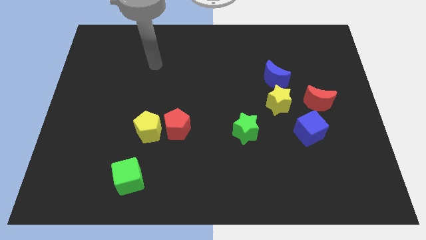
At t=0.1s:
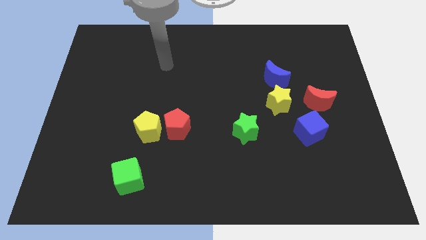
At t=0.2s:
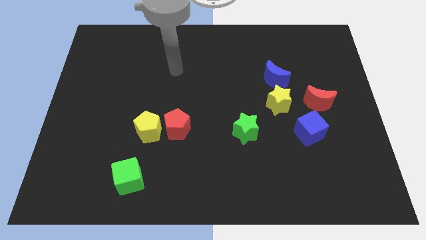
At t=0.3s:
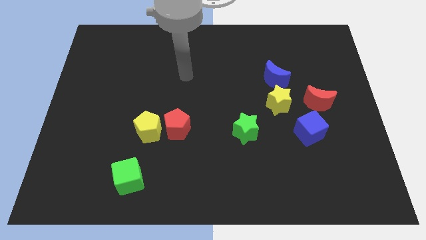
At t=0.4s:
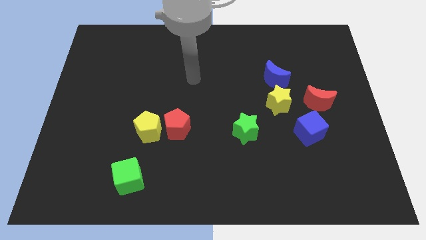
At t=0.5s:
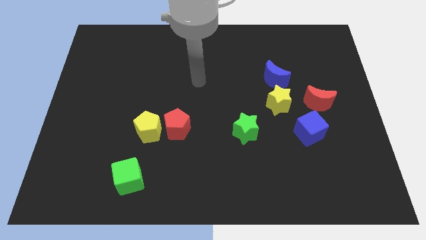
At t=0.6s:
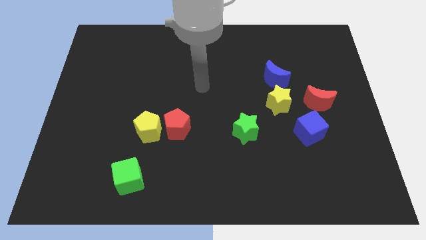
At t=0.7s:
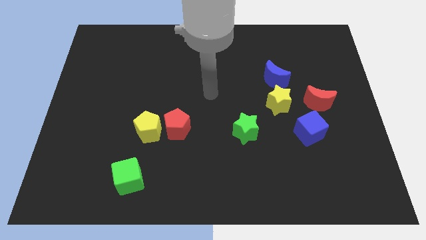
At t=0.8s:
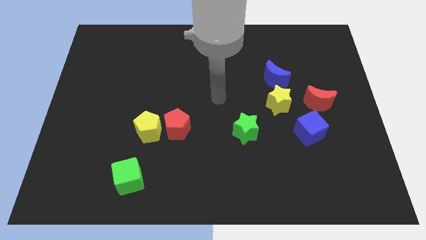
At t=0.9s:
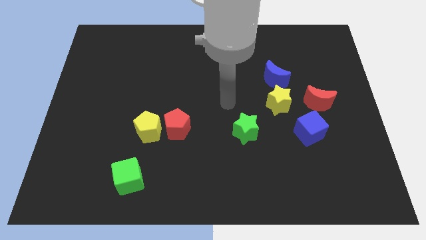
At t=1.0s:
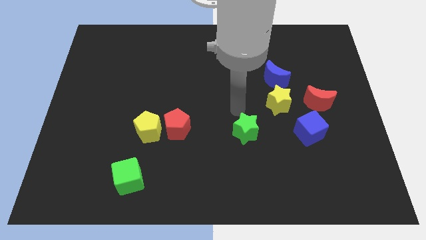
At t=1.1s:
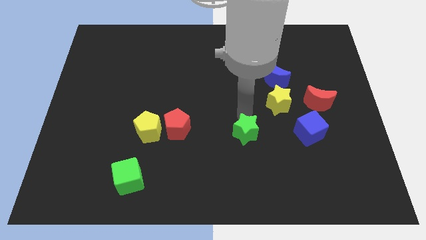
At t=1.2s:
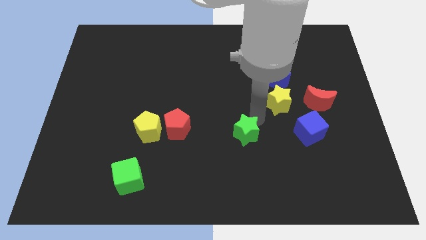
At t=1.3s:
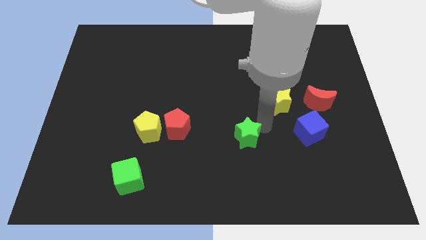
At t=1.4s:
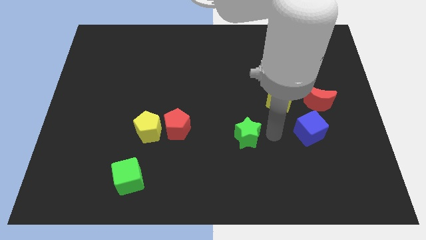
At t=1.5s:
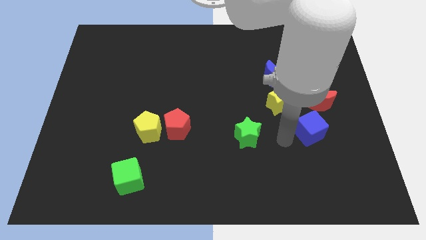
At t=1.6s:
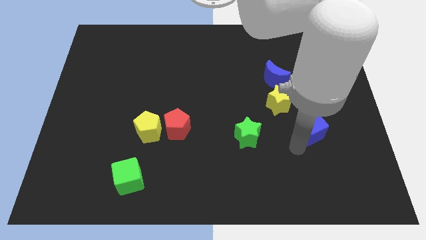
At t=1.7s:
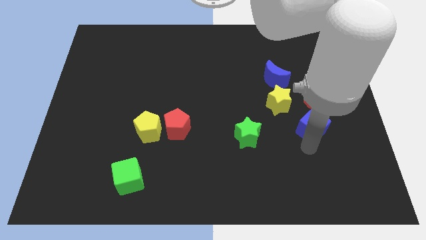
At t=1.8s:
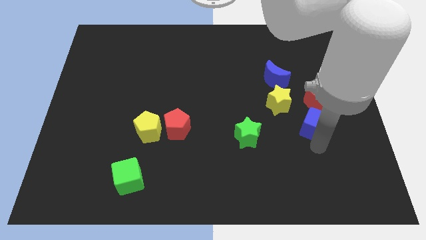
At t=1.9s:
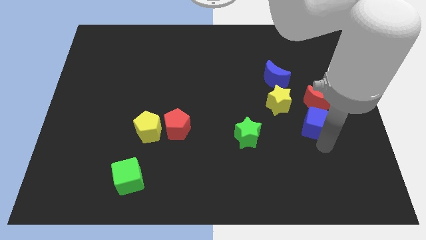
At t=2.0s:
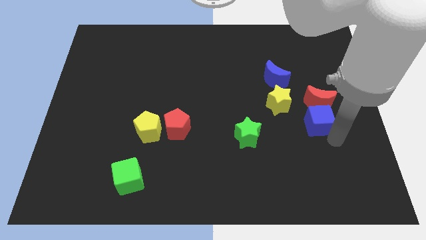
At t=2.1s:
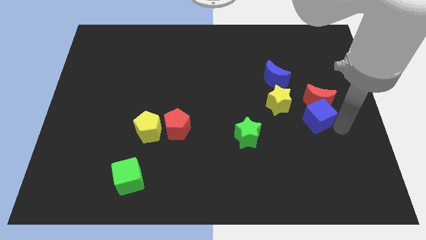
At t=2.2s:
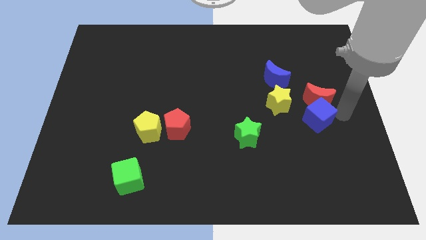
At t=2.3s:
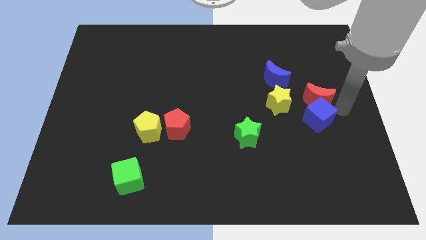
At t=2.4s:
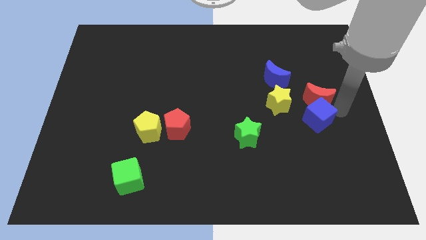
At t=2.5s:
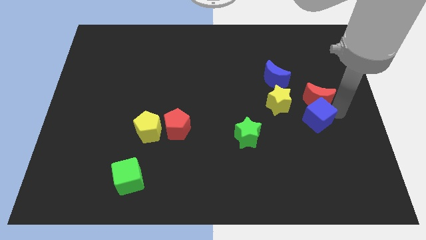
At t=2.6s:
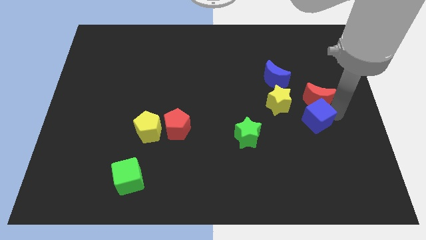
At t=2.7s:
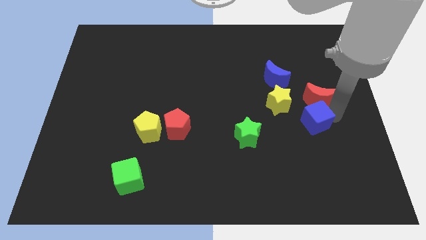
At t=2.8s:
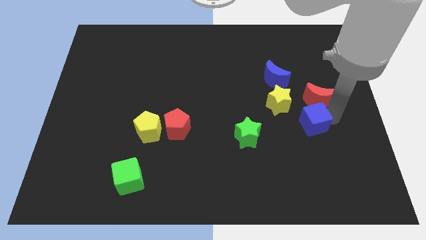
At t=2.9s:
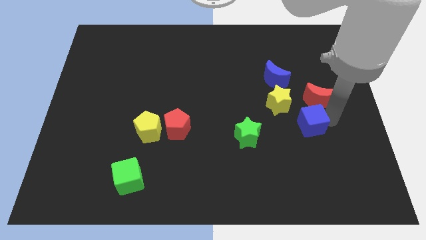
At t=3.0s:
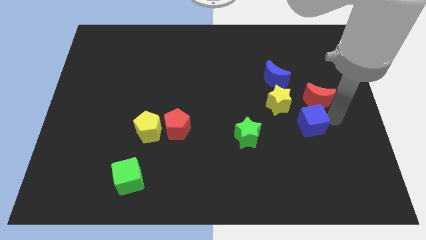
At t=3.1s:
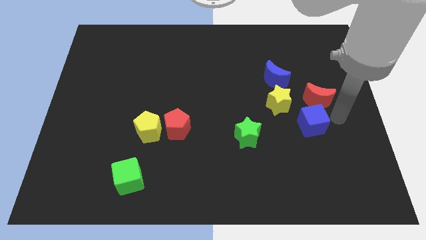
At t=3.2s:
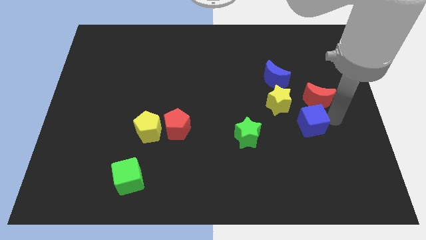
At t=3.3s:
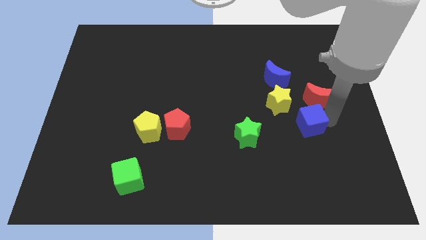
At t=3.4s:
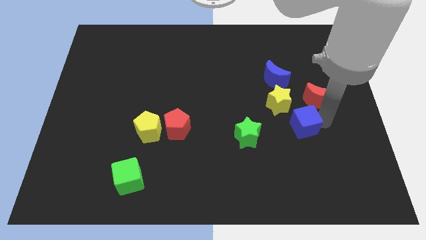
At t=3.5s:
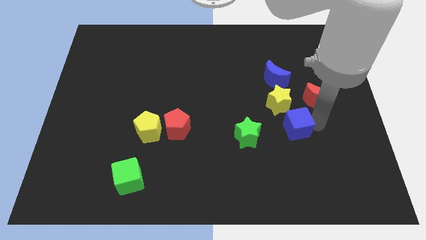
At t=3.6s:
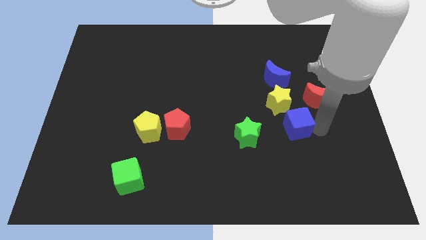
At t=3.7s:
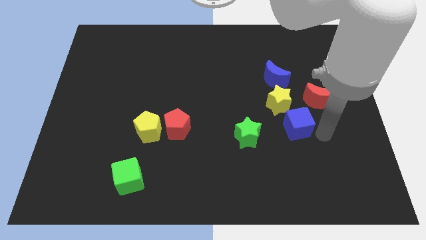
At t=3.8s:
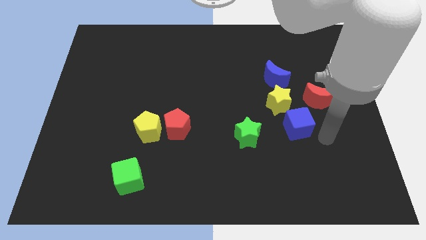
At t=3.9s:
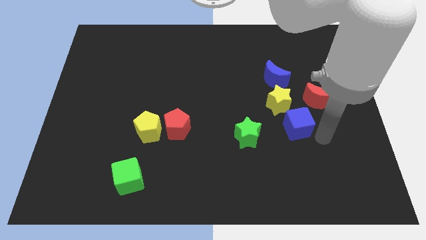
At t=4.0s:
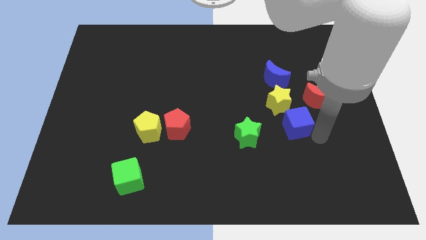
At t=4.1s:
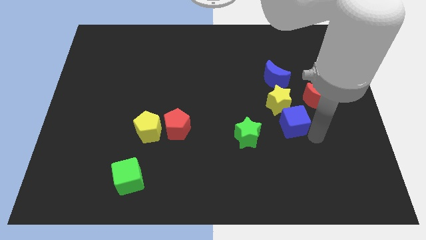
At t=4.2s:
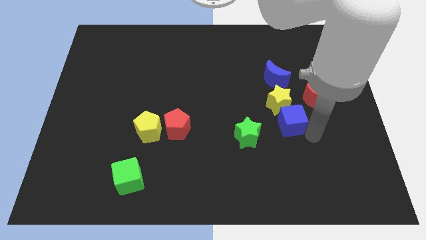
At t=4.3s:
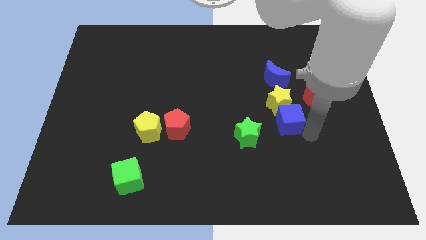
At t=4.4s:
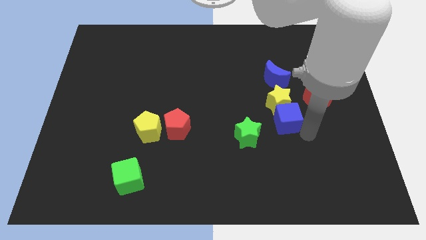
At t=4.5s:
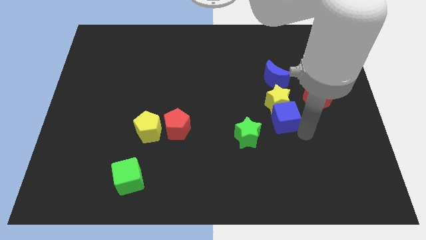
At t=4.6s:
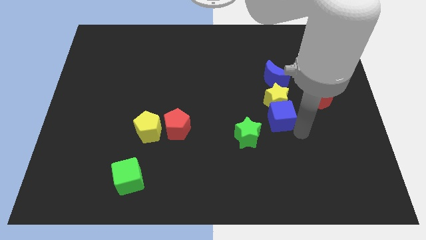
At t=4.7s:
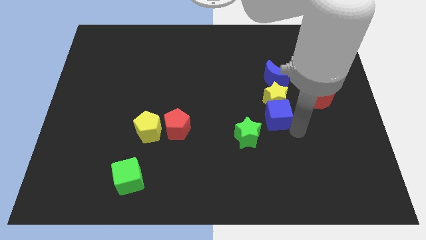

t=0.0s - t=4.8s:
move the blue cube up and left somewhat

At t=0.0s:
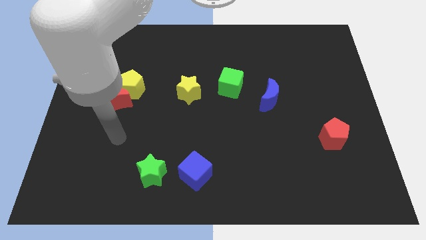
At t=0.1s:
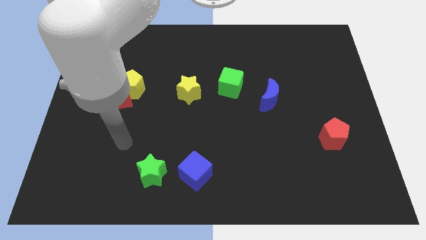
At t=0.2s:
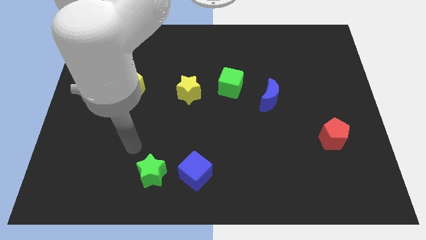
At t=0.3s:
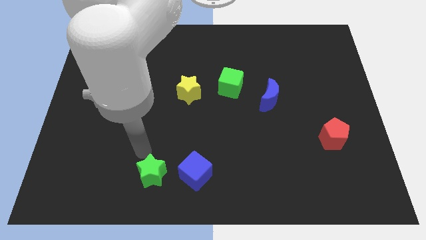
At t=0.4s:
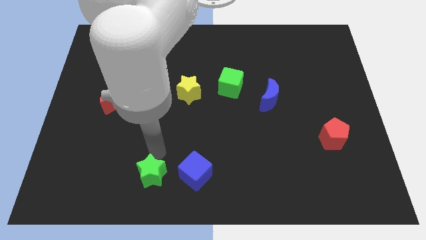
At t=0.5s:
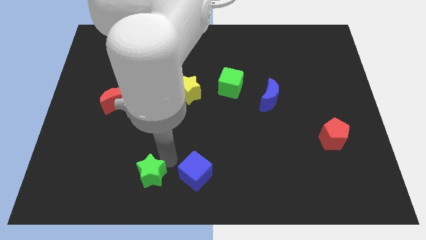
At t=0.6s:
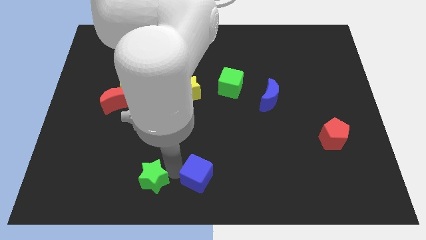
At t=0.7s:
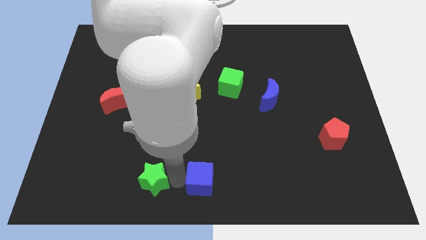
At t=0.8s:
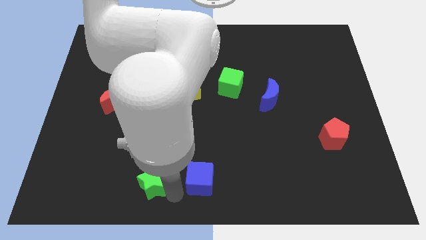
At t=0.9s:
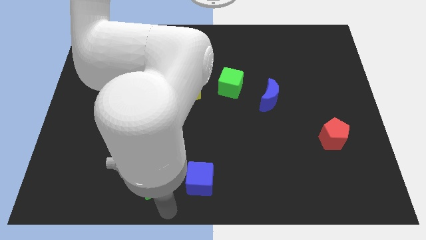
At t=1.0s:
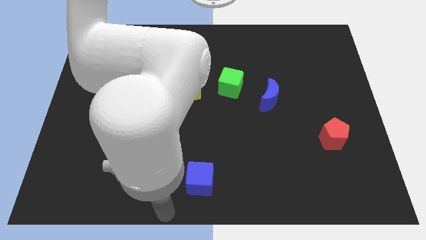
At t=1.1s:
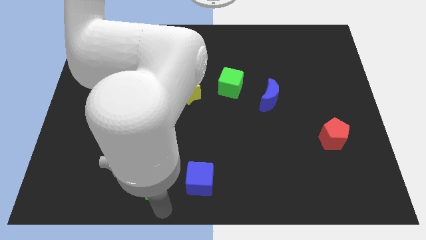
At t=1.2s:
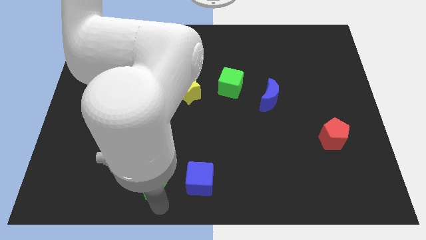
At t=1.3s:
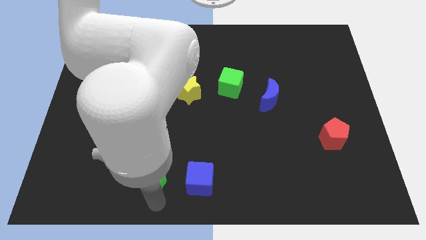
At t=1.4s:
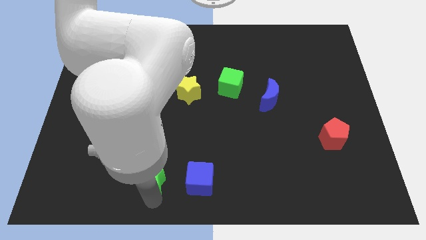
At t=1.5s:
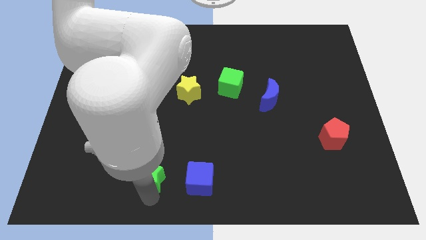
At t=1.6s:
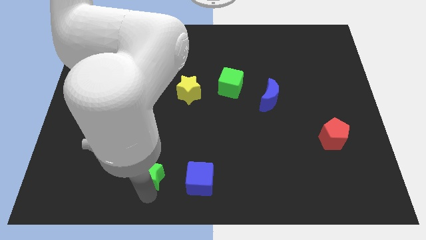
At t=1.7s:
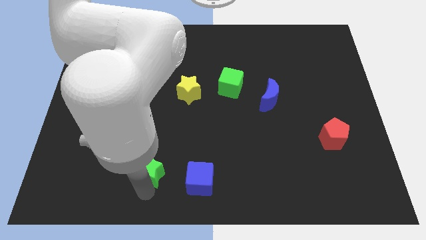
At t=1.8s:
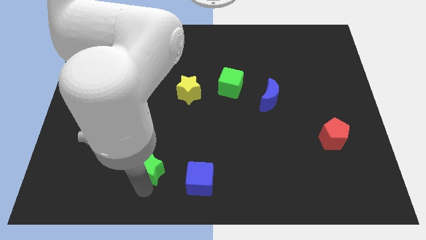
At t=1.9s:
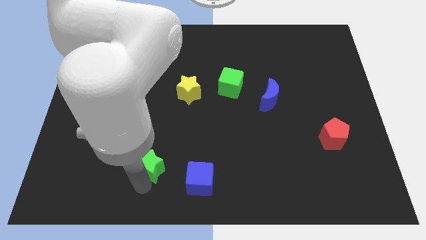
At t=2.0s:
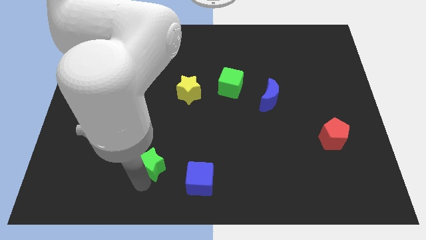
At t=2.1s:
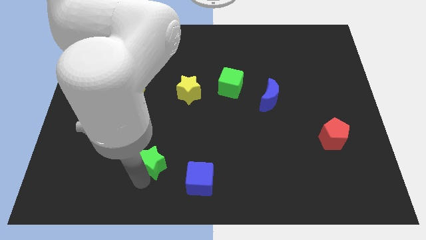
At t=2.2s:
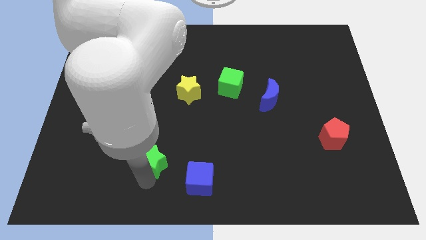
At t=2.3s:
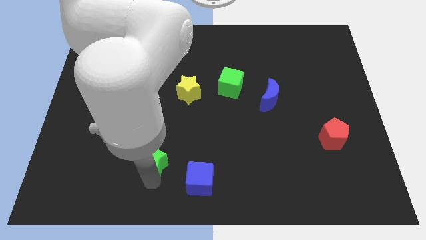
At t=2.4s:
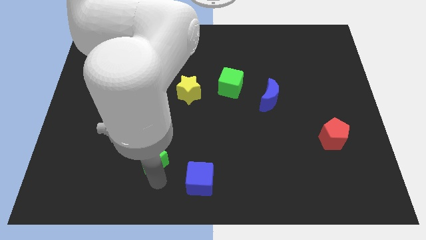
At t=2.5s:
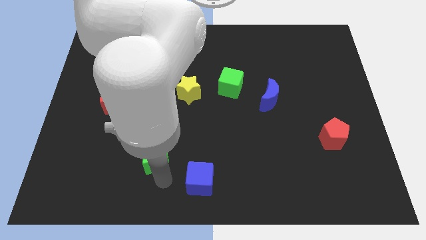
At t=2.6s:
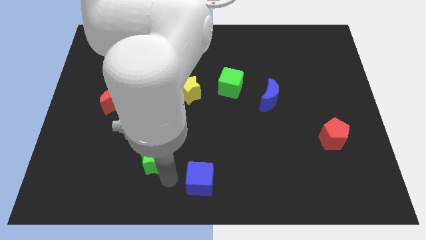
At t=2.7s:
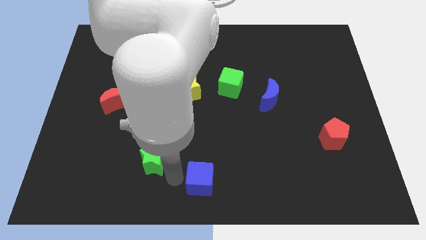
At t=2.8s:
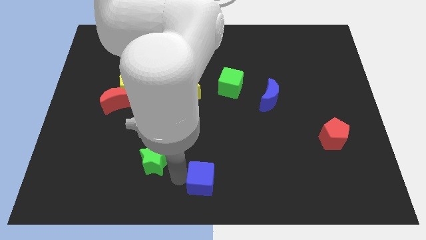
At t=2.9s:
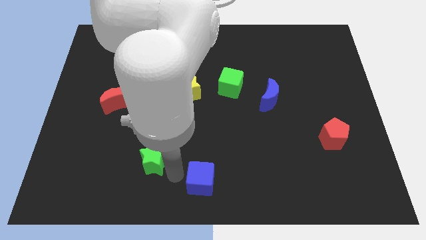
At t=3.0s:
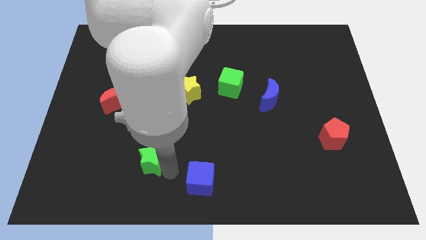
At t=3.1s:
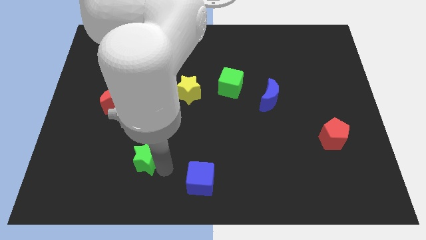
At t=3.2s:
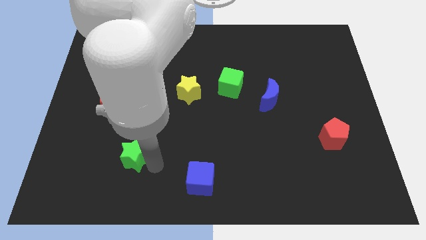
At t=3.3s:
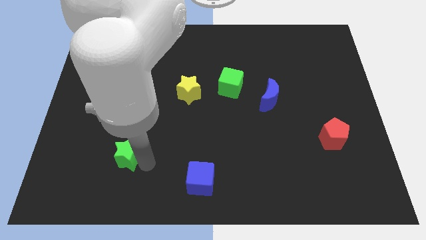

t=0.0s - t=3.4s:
move the green star a little bit upwards and to the left diagonally
